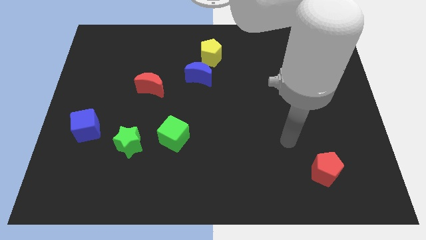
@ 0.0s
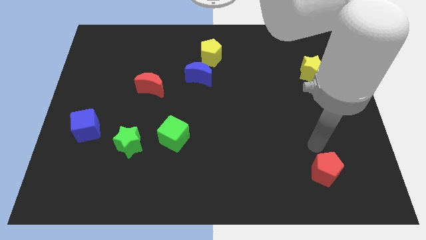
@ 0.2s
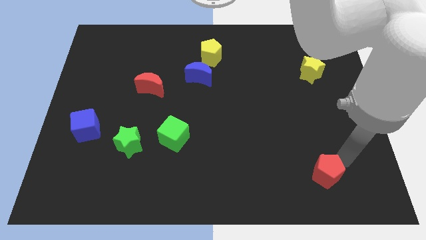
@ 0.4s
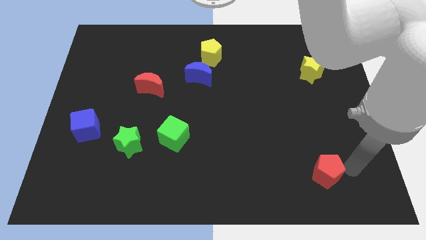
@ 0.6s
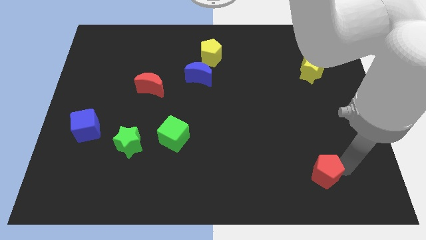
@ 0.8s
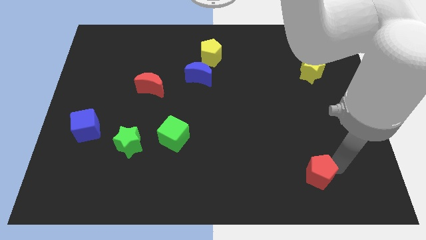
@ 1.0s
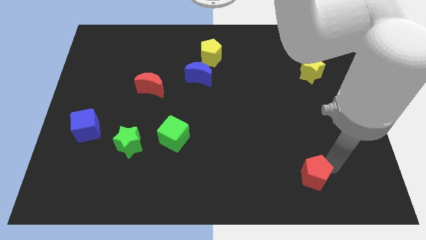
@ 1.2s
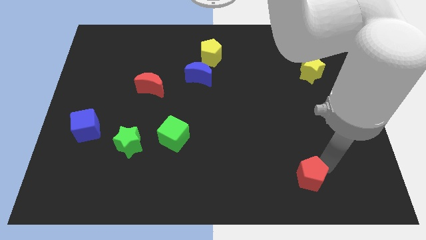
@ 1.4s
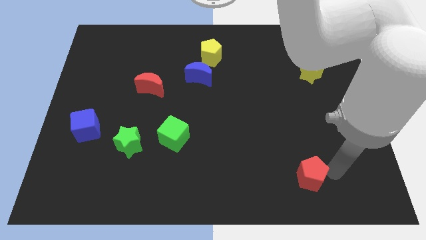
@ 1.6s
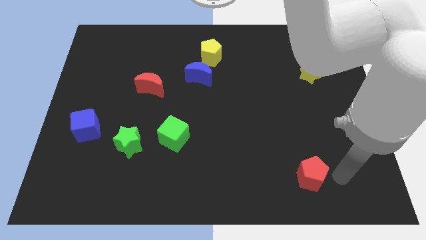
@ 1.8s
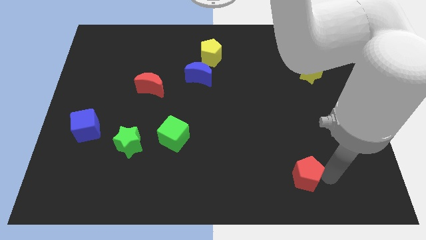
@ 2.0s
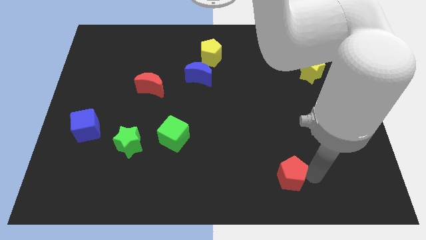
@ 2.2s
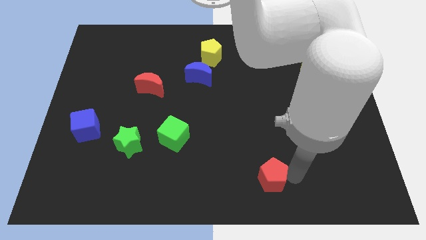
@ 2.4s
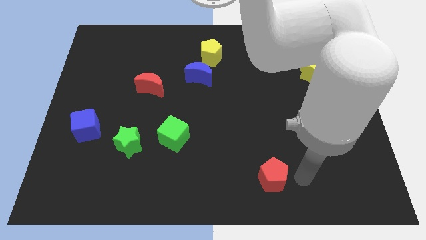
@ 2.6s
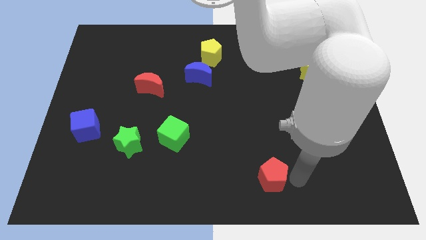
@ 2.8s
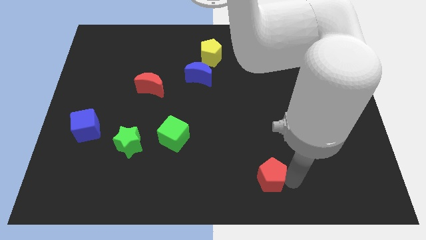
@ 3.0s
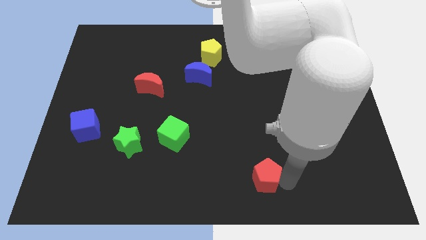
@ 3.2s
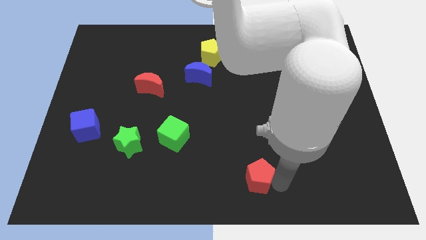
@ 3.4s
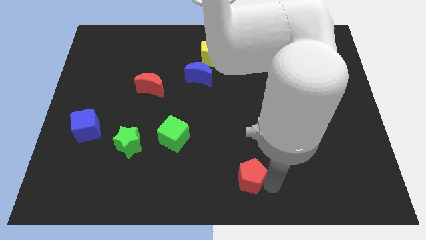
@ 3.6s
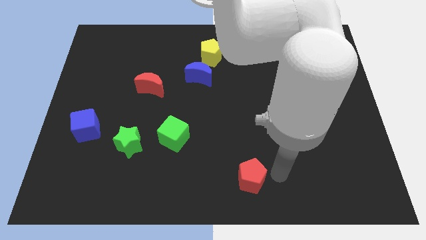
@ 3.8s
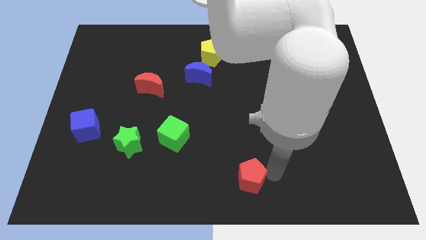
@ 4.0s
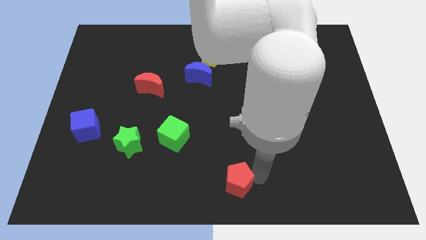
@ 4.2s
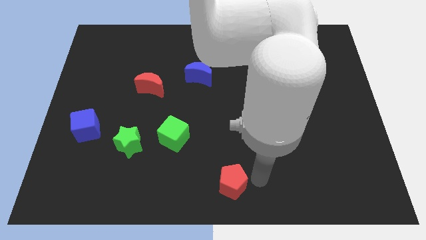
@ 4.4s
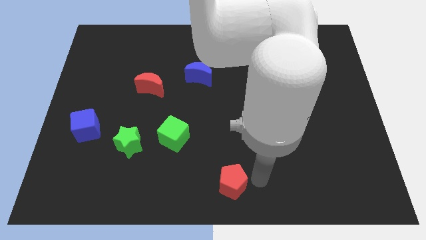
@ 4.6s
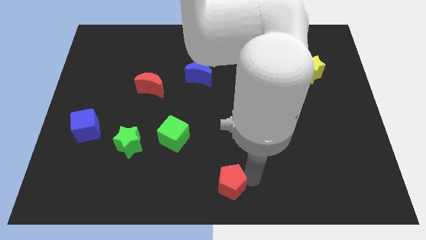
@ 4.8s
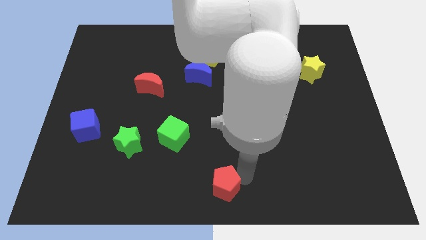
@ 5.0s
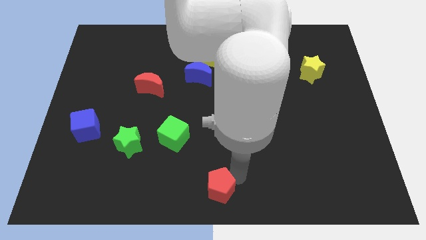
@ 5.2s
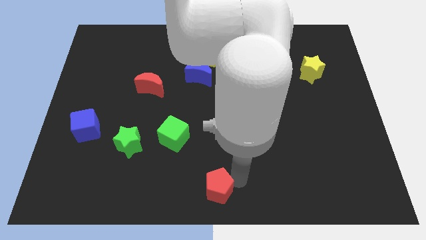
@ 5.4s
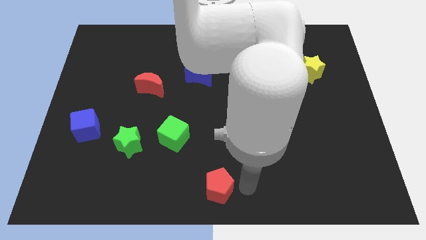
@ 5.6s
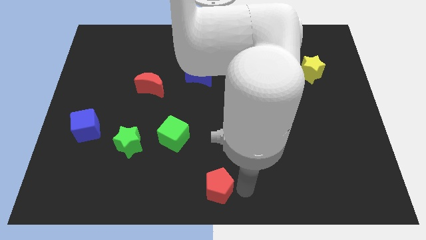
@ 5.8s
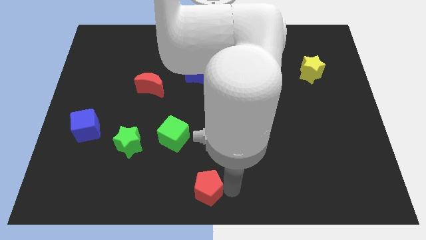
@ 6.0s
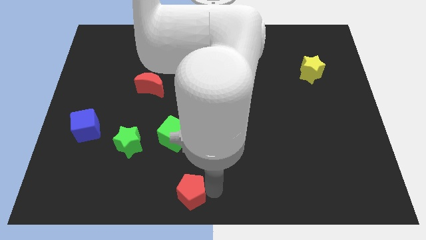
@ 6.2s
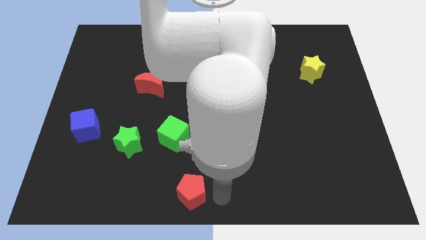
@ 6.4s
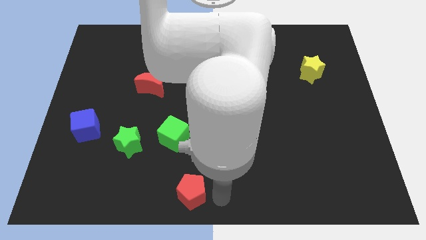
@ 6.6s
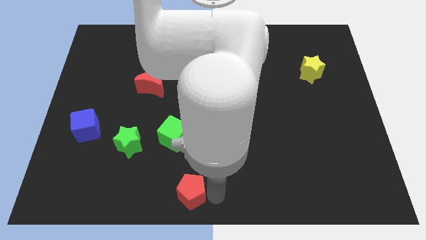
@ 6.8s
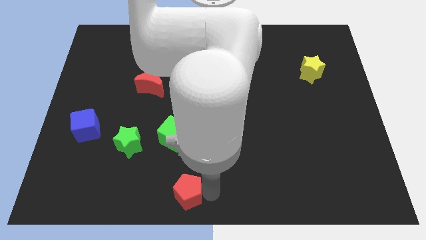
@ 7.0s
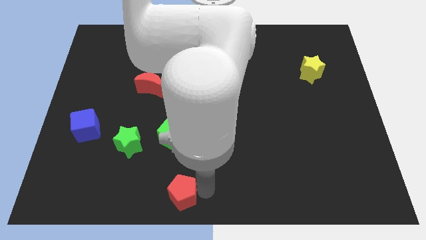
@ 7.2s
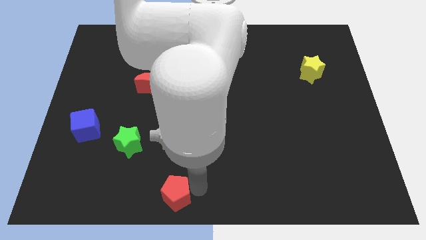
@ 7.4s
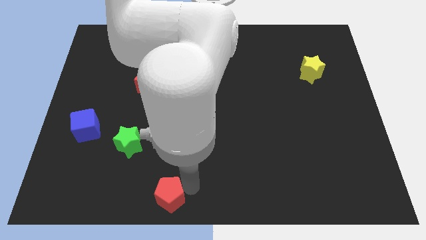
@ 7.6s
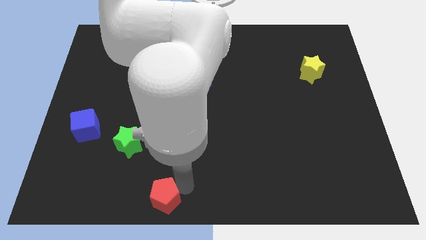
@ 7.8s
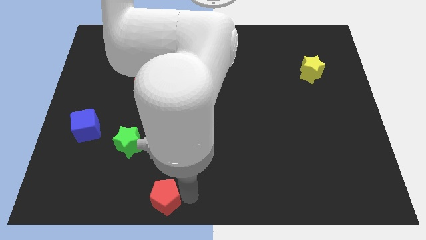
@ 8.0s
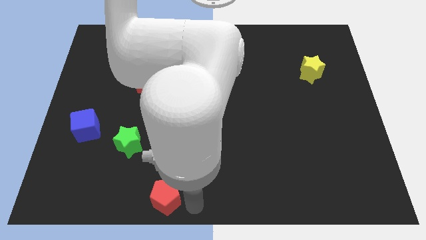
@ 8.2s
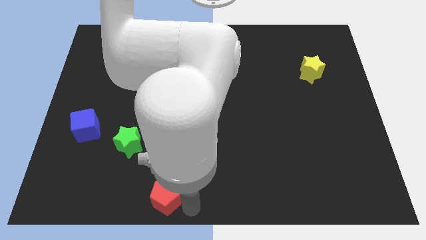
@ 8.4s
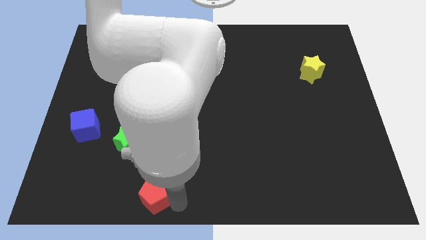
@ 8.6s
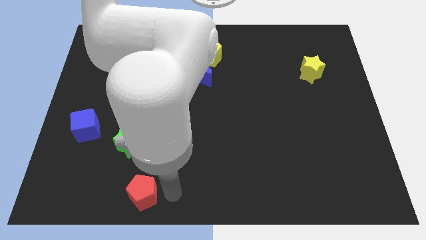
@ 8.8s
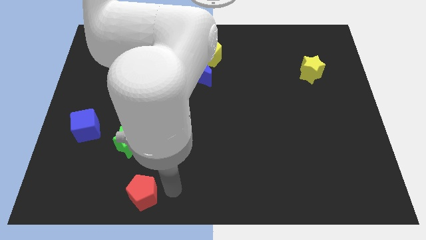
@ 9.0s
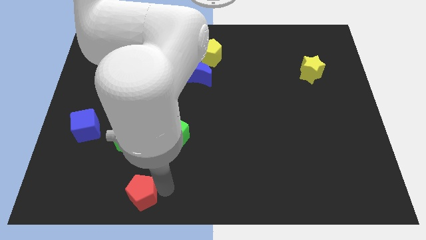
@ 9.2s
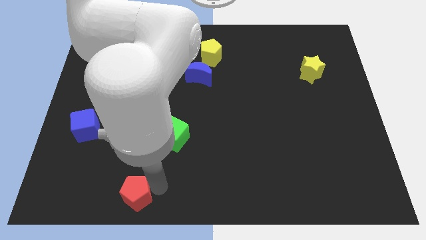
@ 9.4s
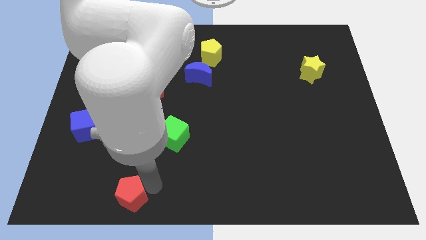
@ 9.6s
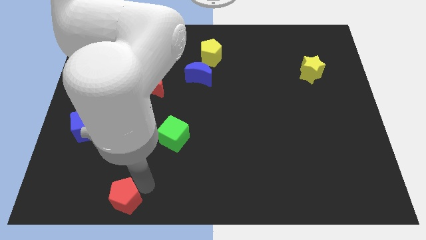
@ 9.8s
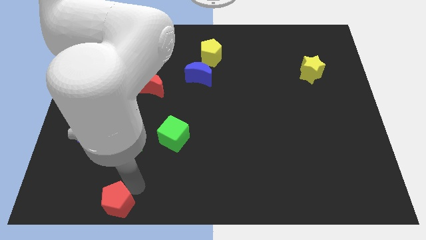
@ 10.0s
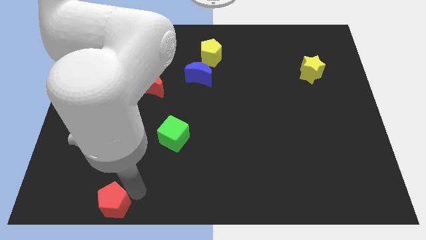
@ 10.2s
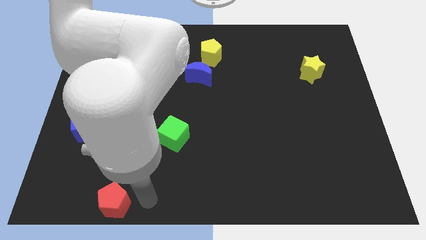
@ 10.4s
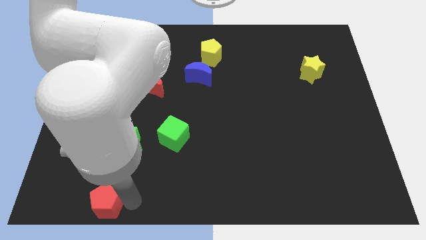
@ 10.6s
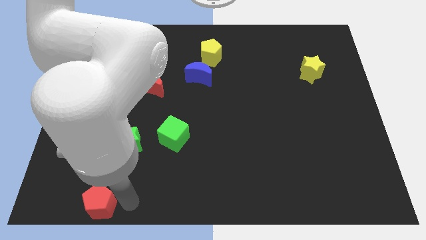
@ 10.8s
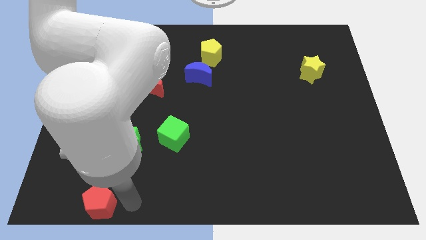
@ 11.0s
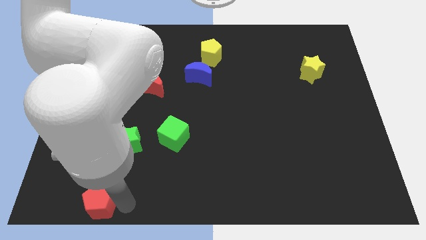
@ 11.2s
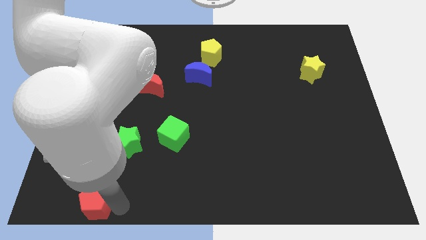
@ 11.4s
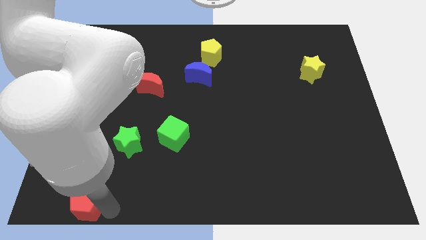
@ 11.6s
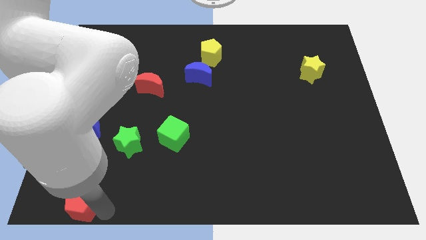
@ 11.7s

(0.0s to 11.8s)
slide the red pentagon to the bottom left of the board

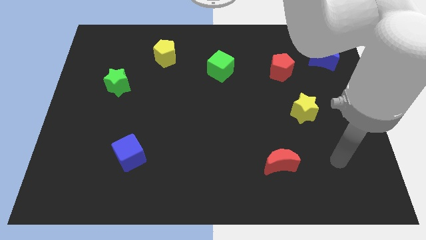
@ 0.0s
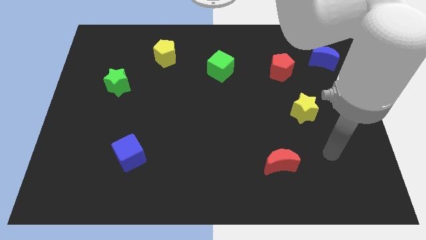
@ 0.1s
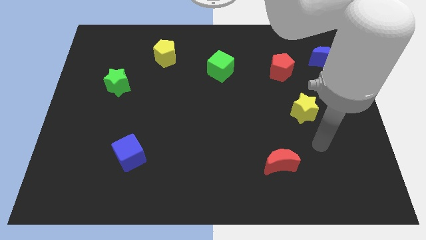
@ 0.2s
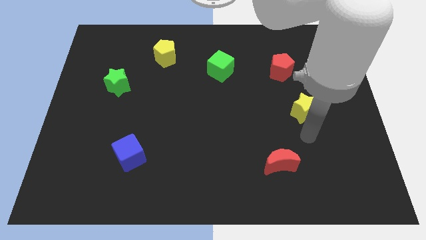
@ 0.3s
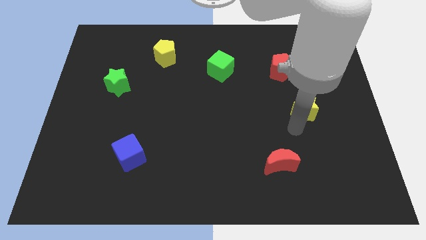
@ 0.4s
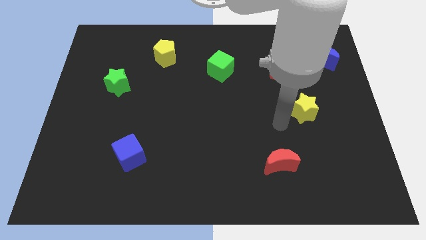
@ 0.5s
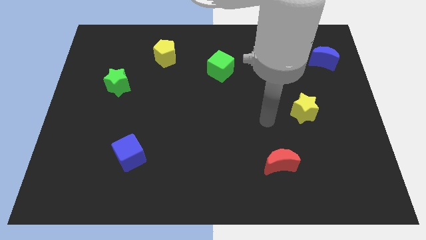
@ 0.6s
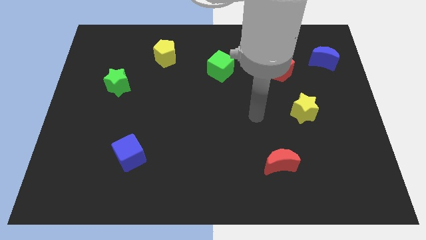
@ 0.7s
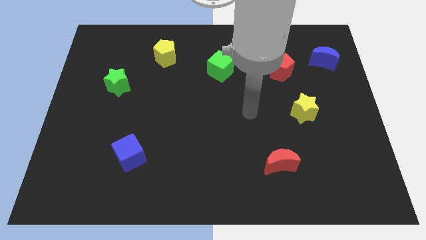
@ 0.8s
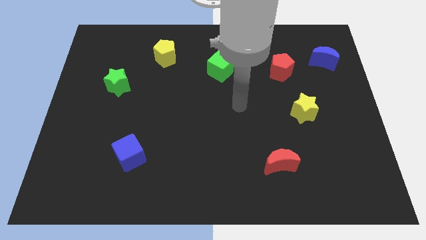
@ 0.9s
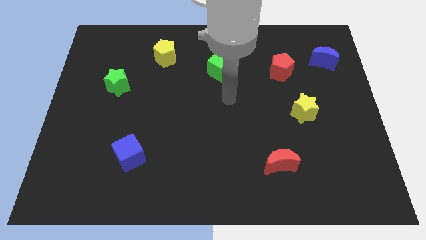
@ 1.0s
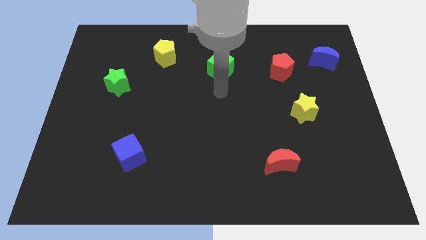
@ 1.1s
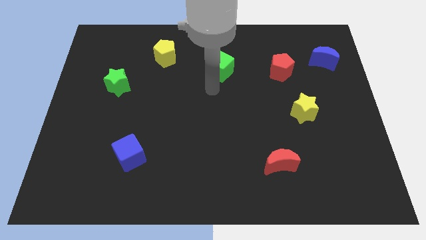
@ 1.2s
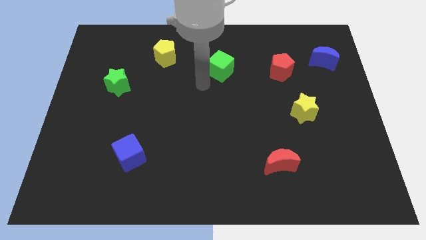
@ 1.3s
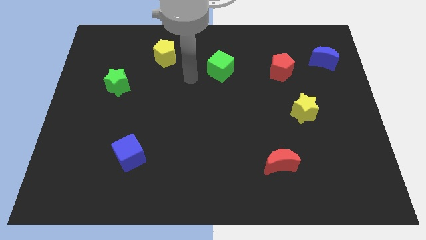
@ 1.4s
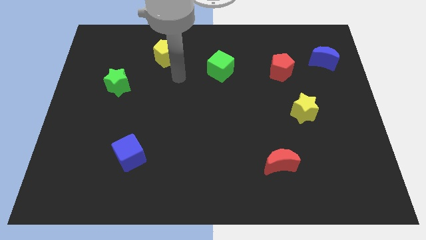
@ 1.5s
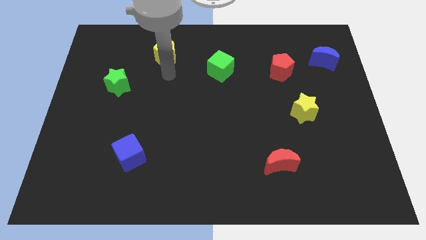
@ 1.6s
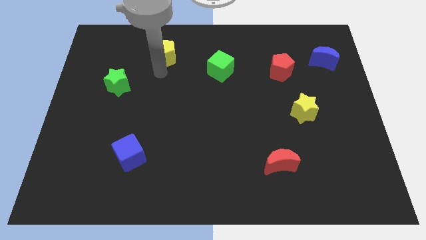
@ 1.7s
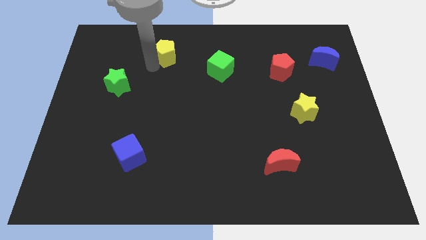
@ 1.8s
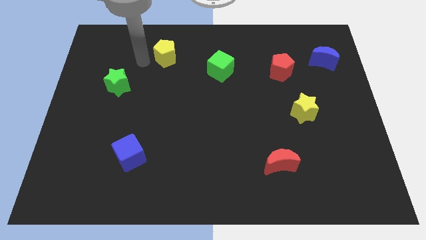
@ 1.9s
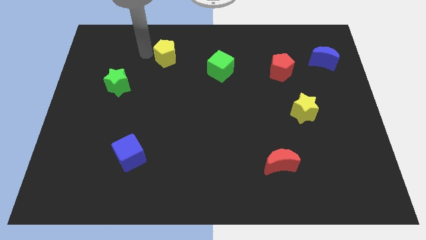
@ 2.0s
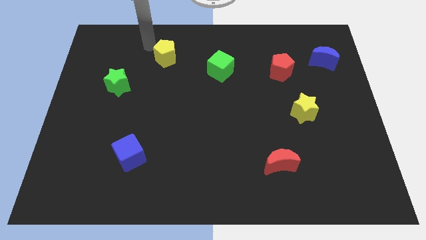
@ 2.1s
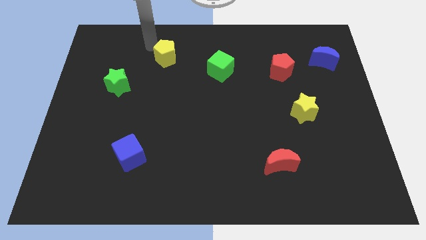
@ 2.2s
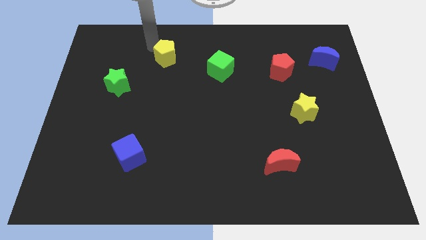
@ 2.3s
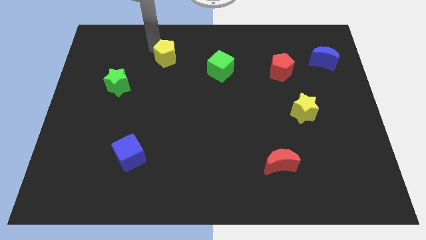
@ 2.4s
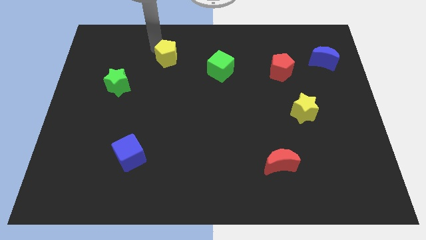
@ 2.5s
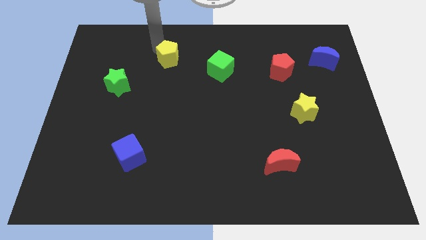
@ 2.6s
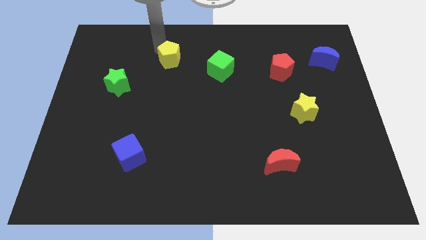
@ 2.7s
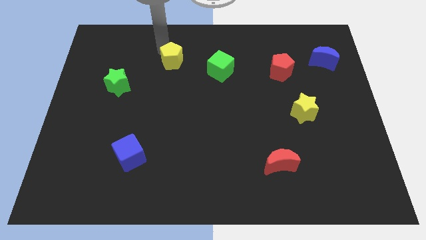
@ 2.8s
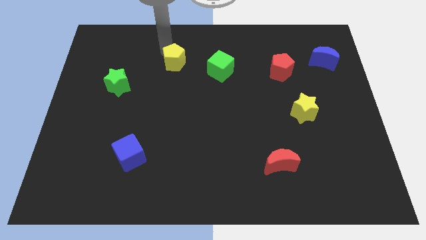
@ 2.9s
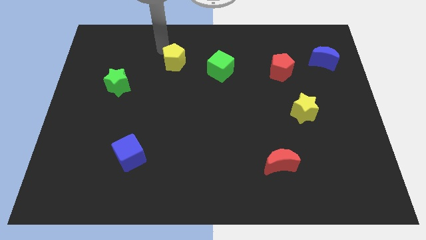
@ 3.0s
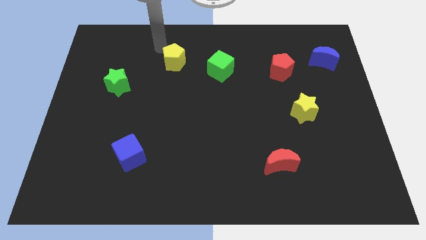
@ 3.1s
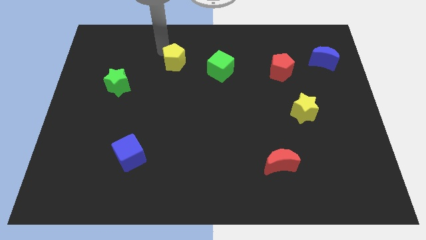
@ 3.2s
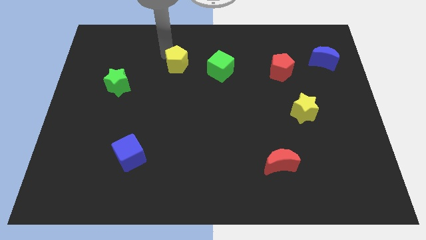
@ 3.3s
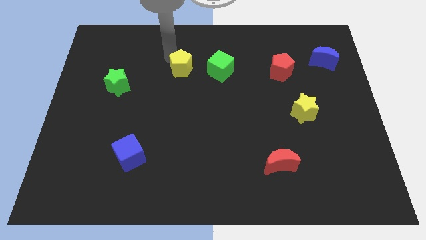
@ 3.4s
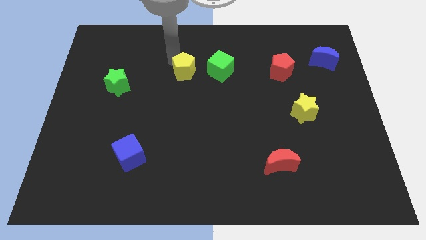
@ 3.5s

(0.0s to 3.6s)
move the yellow pentagon to the center
